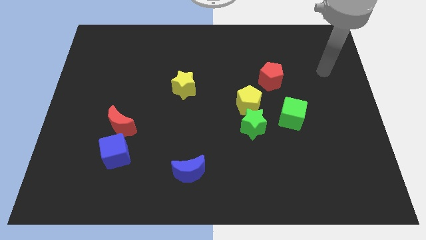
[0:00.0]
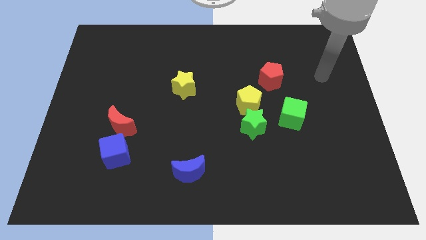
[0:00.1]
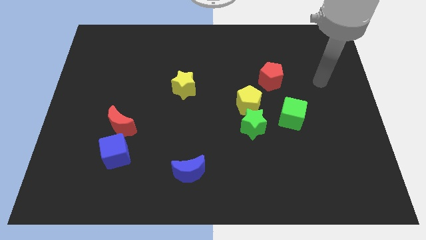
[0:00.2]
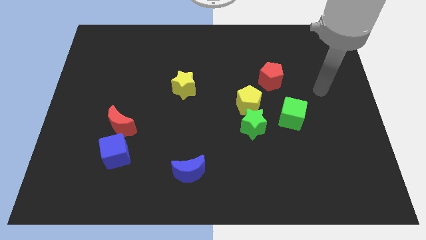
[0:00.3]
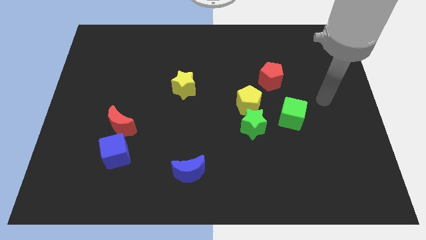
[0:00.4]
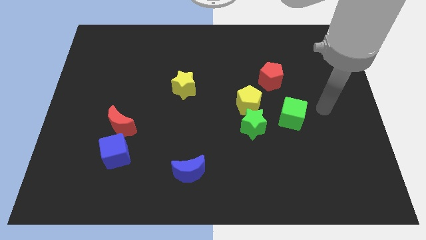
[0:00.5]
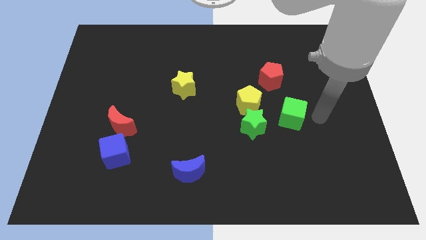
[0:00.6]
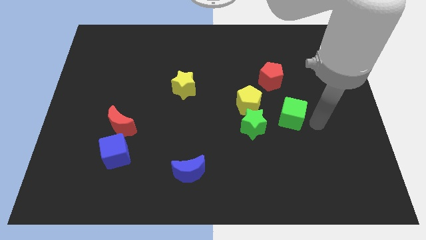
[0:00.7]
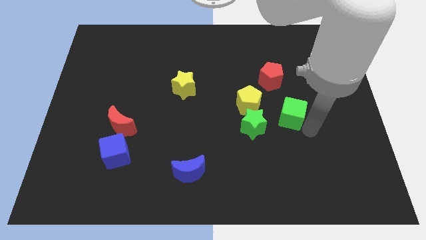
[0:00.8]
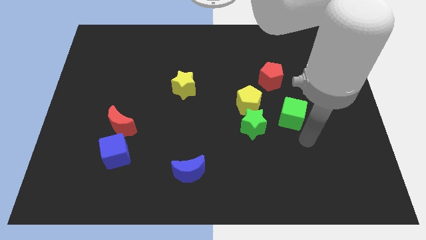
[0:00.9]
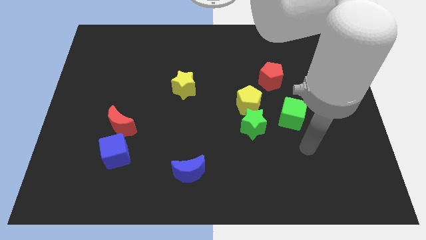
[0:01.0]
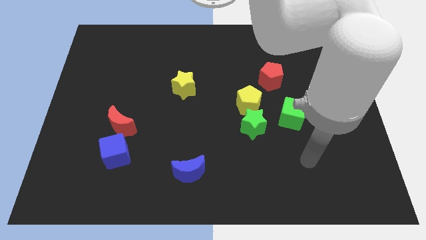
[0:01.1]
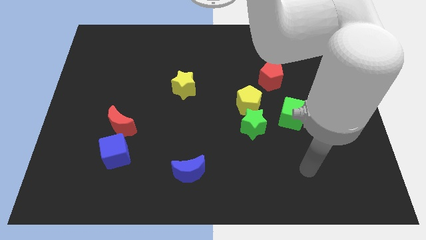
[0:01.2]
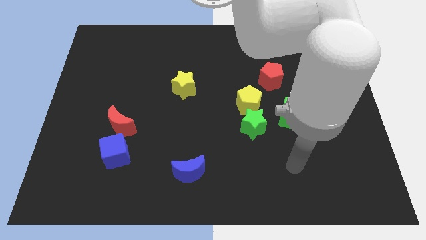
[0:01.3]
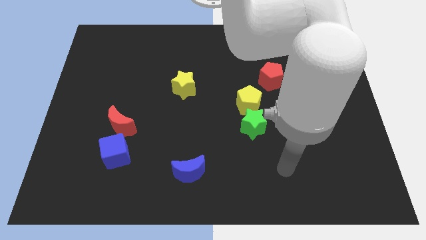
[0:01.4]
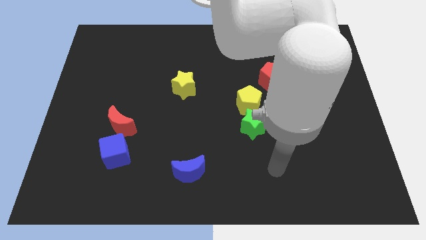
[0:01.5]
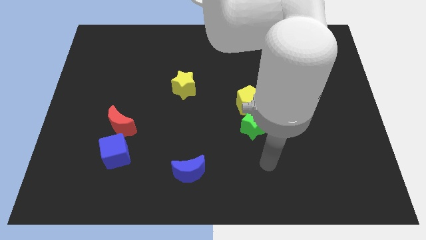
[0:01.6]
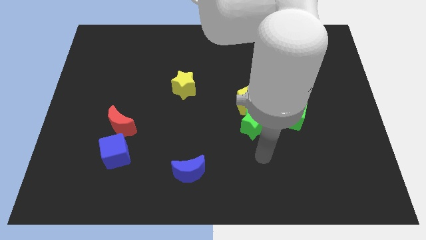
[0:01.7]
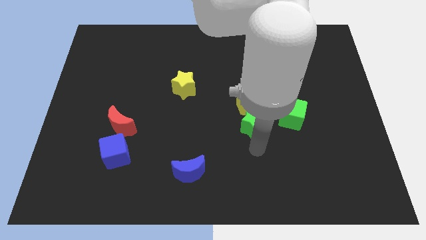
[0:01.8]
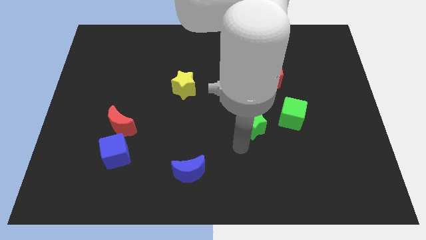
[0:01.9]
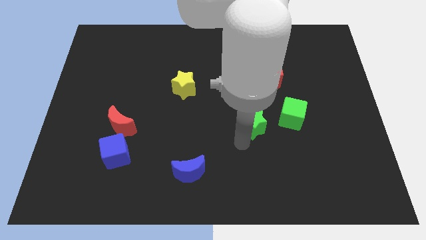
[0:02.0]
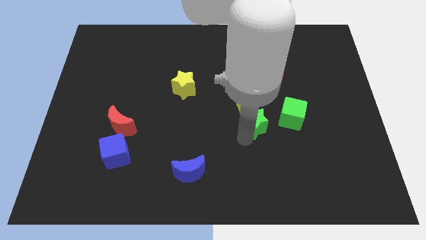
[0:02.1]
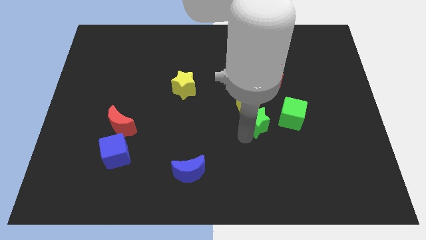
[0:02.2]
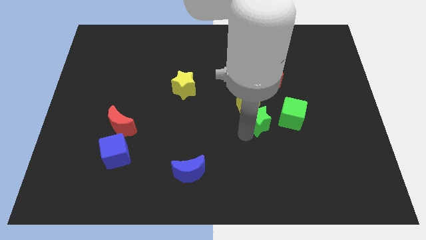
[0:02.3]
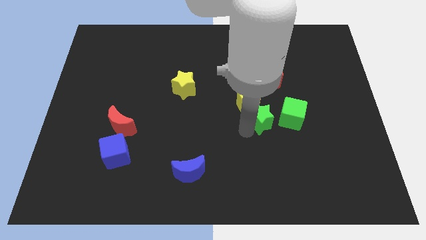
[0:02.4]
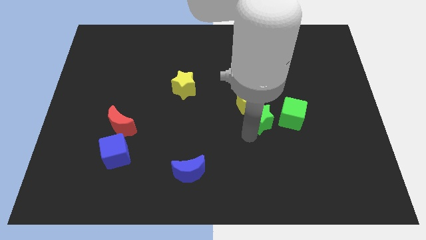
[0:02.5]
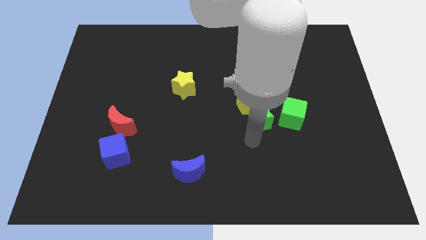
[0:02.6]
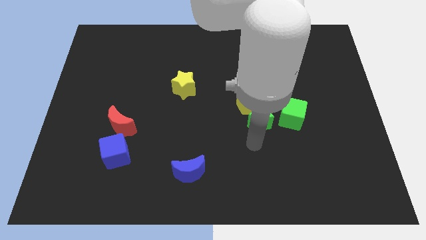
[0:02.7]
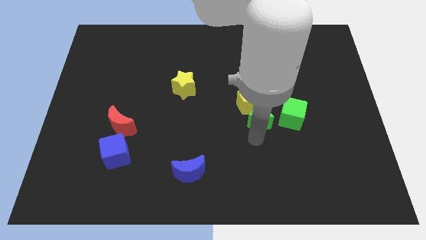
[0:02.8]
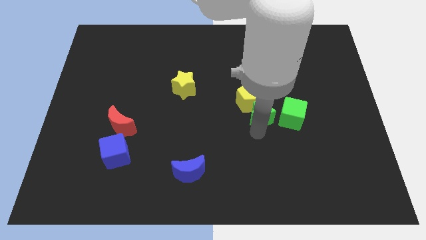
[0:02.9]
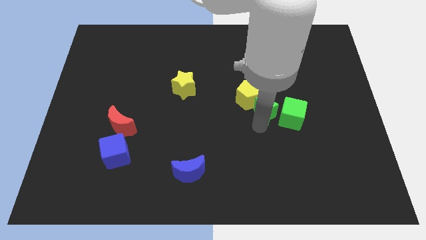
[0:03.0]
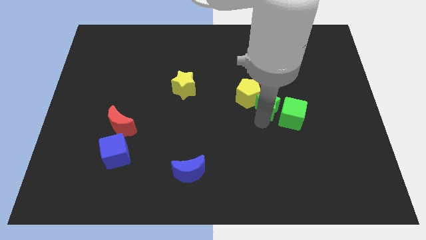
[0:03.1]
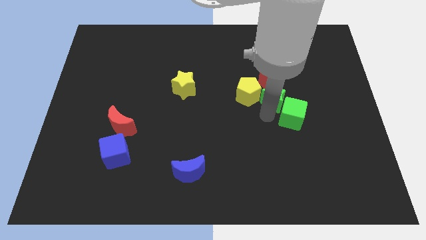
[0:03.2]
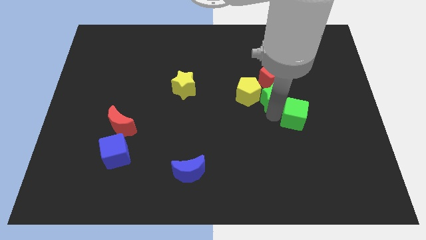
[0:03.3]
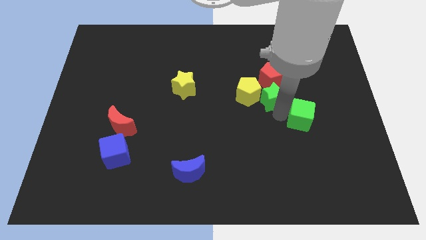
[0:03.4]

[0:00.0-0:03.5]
push the green star a little upwards

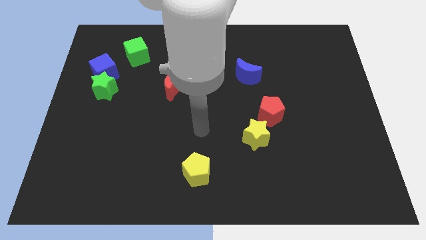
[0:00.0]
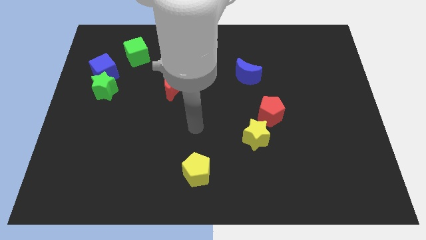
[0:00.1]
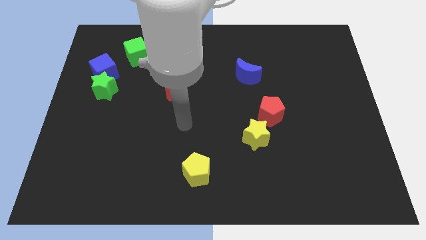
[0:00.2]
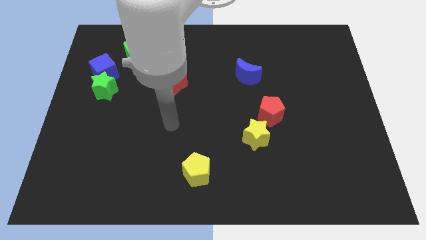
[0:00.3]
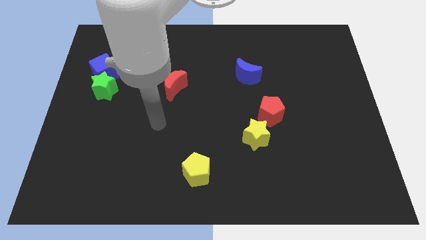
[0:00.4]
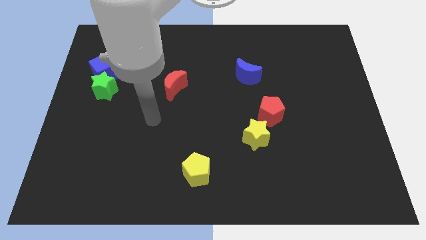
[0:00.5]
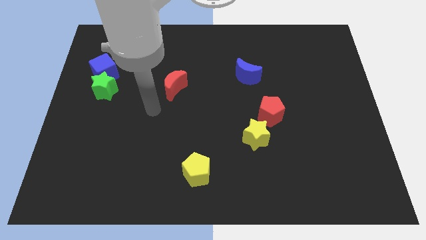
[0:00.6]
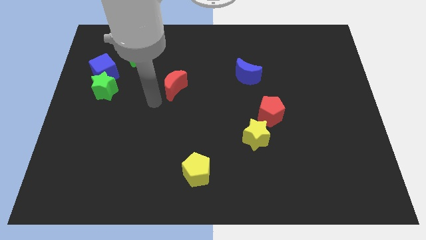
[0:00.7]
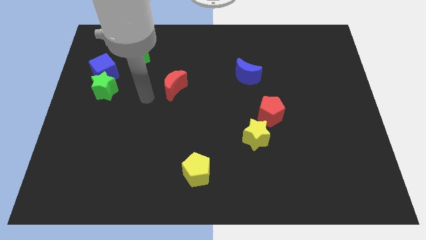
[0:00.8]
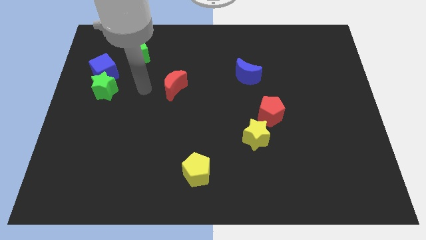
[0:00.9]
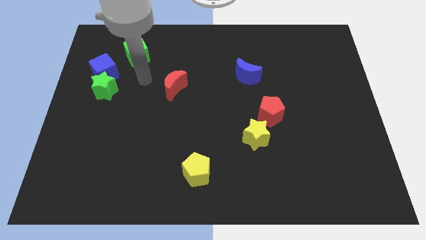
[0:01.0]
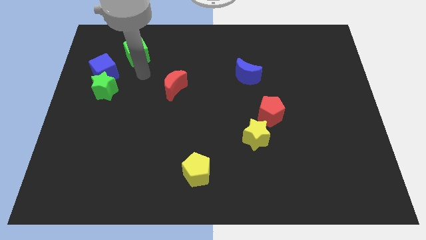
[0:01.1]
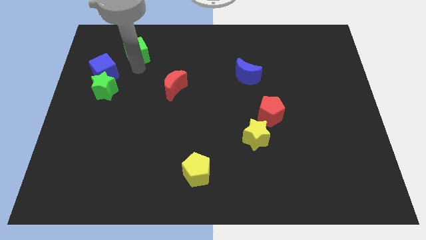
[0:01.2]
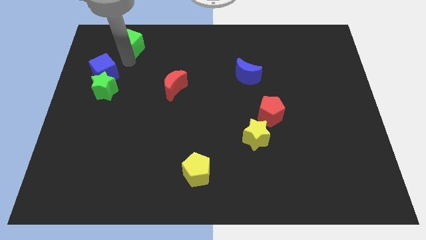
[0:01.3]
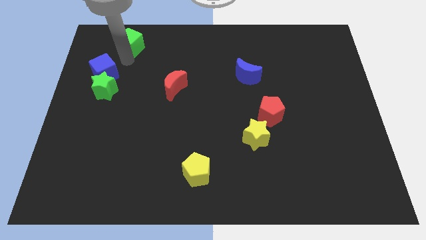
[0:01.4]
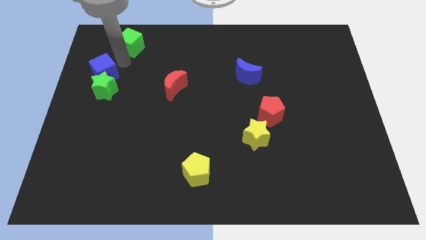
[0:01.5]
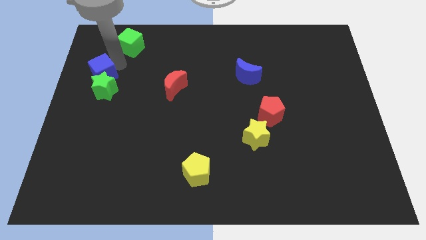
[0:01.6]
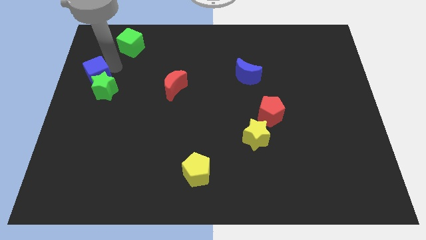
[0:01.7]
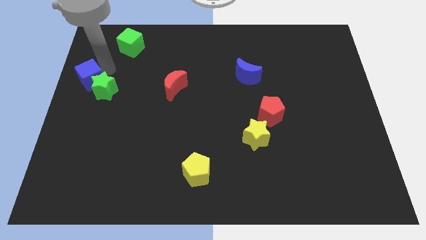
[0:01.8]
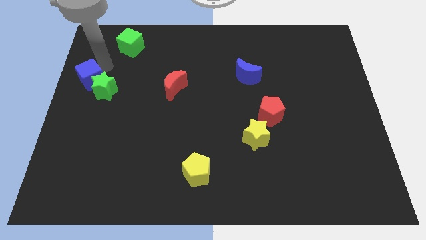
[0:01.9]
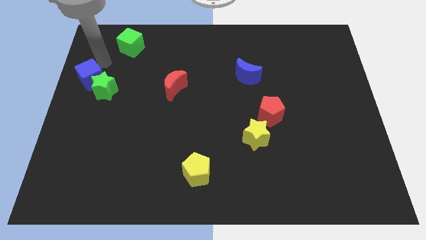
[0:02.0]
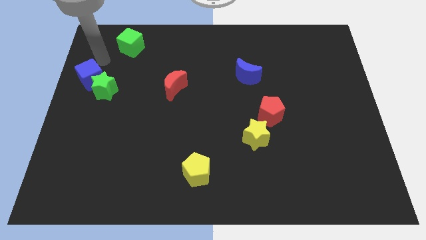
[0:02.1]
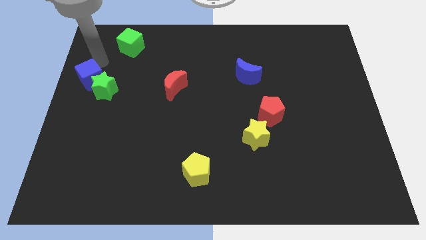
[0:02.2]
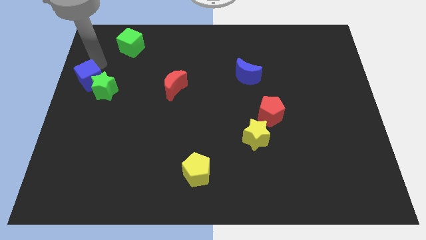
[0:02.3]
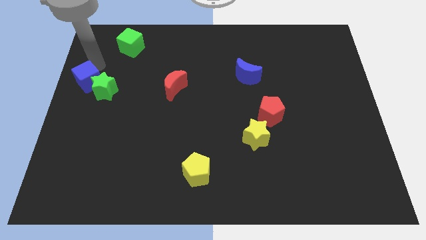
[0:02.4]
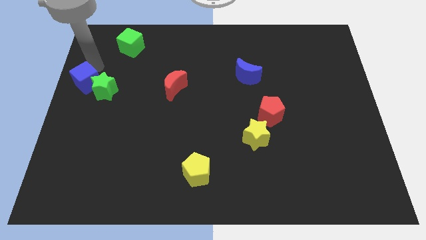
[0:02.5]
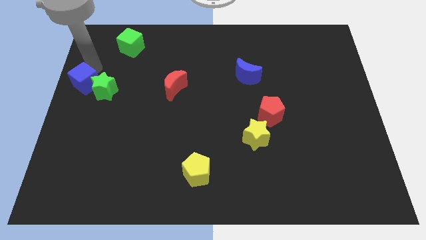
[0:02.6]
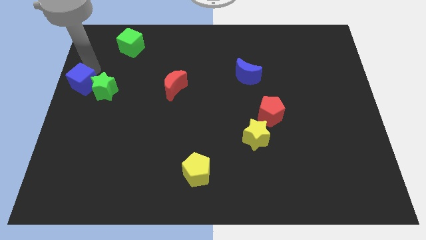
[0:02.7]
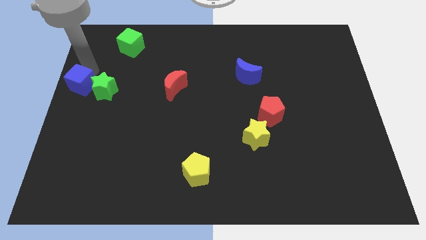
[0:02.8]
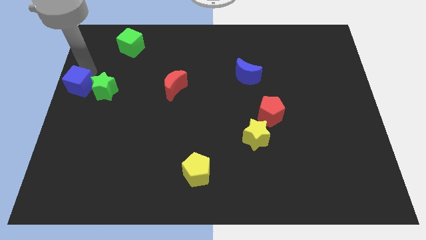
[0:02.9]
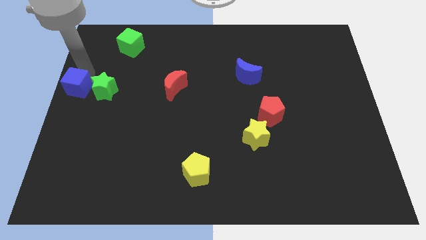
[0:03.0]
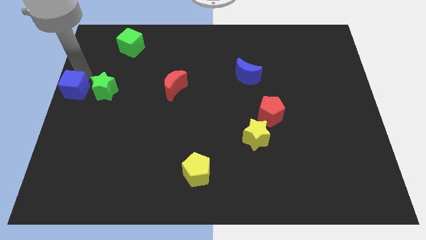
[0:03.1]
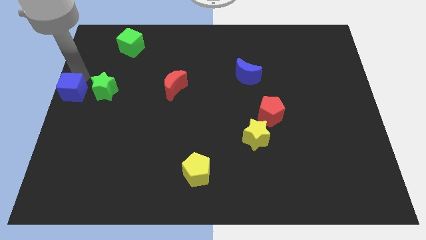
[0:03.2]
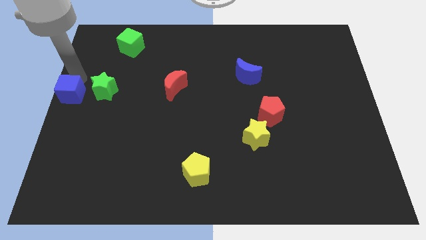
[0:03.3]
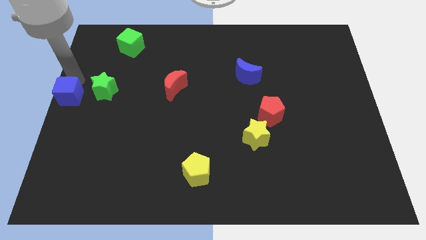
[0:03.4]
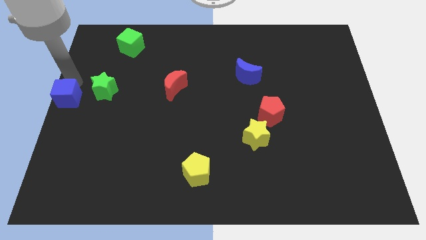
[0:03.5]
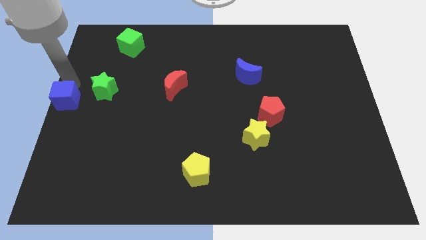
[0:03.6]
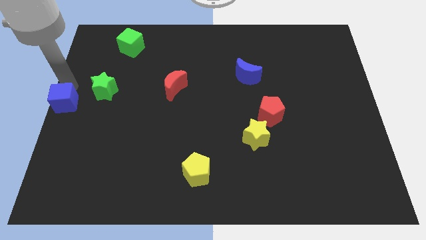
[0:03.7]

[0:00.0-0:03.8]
slide the blue cube downwards slightly

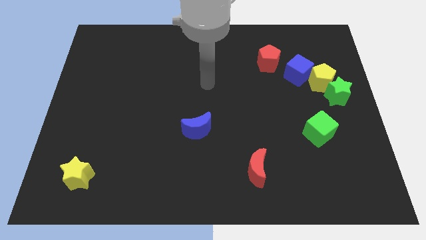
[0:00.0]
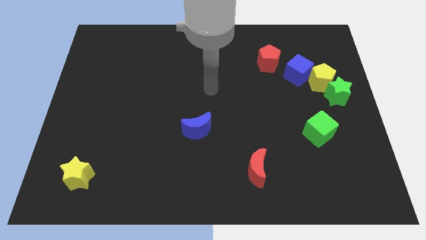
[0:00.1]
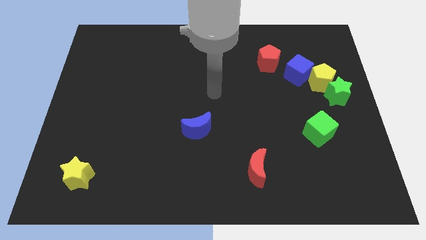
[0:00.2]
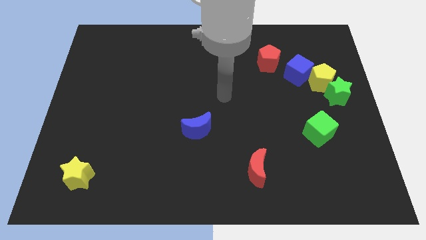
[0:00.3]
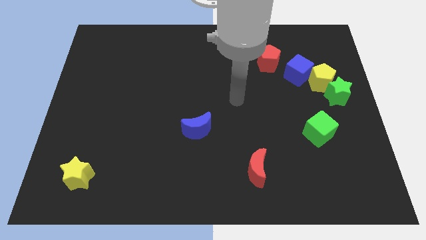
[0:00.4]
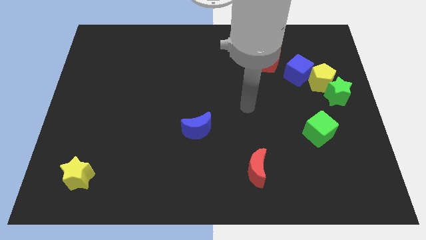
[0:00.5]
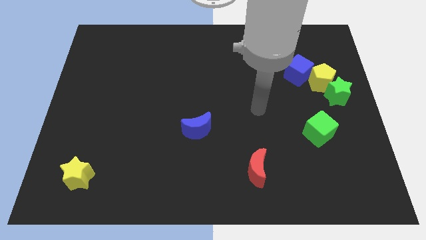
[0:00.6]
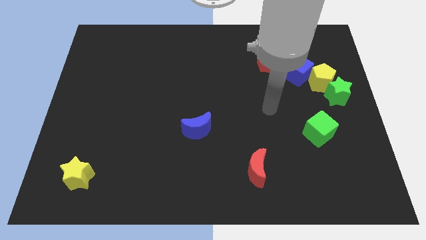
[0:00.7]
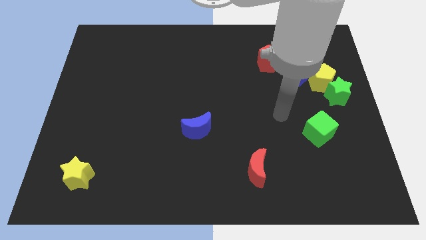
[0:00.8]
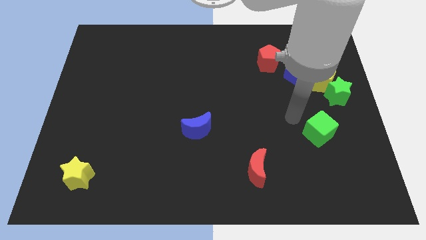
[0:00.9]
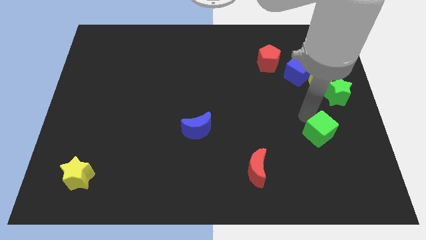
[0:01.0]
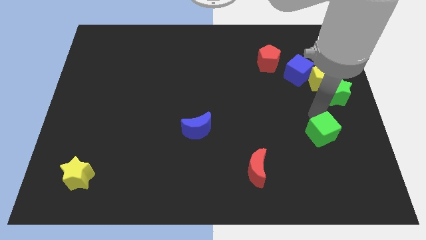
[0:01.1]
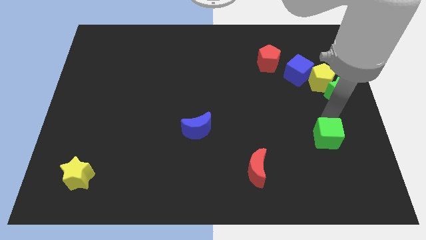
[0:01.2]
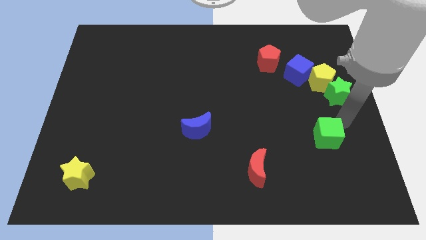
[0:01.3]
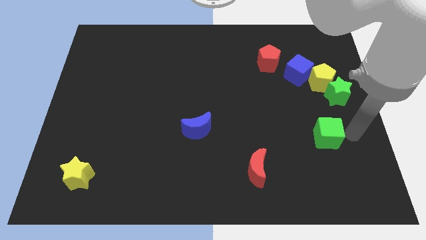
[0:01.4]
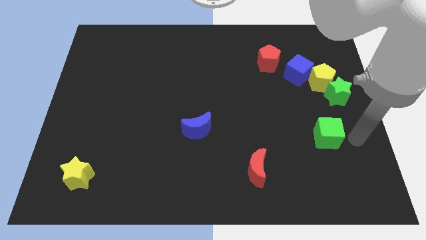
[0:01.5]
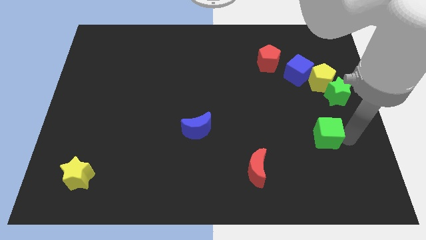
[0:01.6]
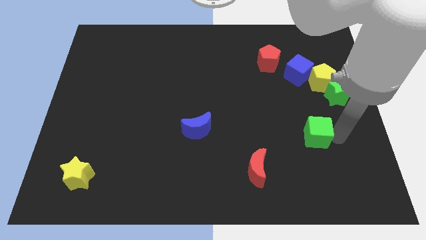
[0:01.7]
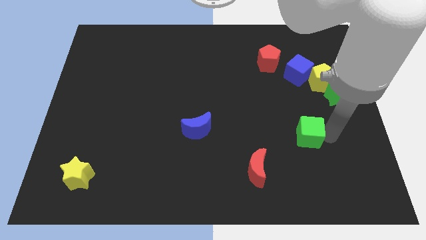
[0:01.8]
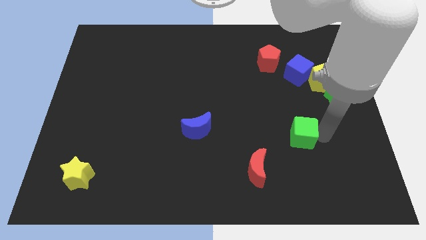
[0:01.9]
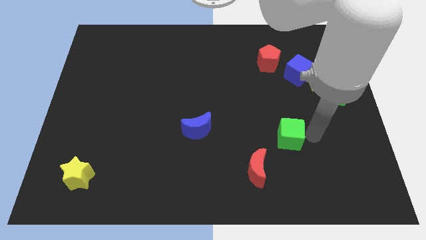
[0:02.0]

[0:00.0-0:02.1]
slightly slide the green cube left
